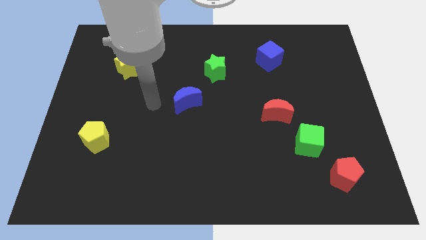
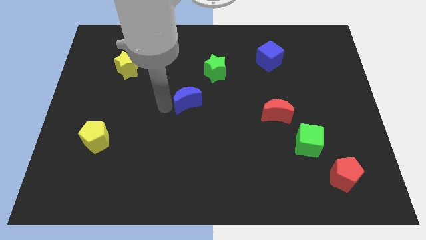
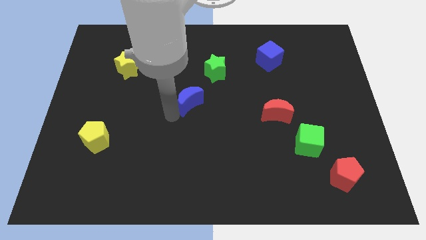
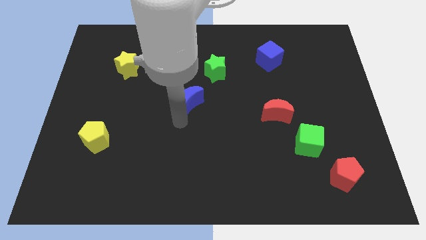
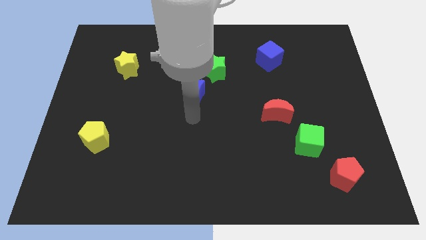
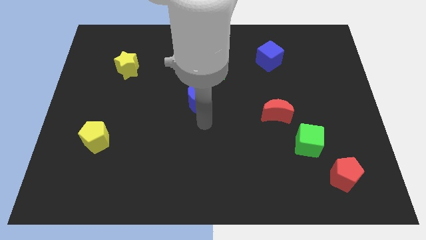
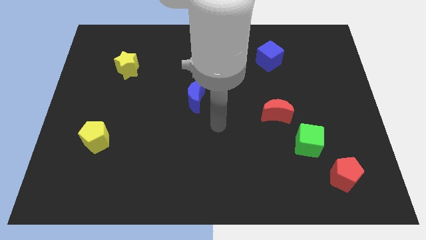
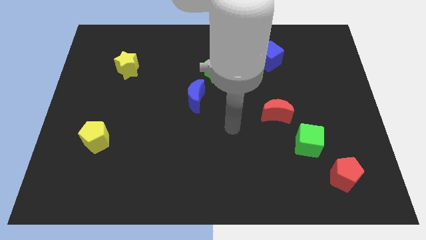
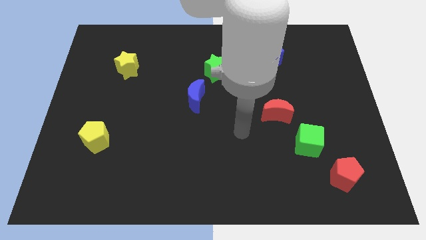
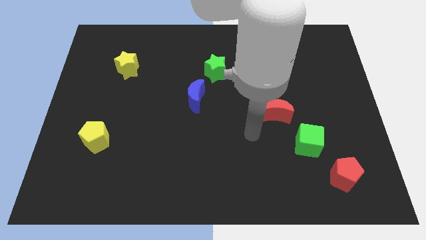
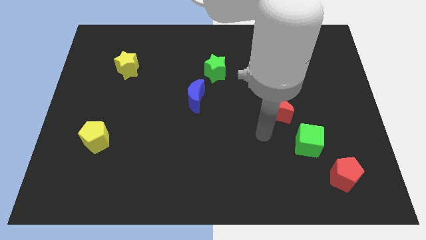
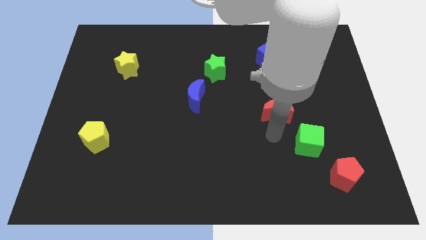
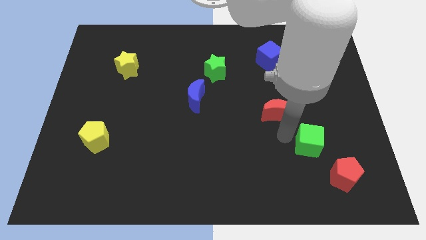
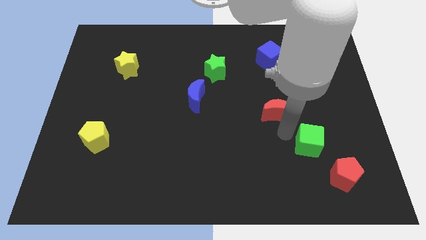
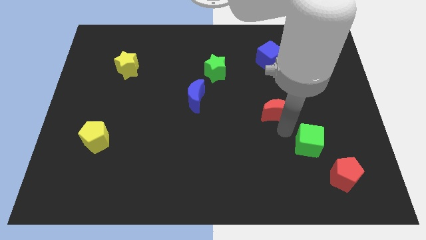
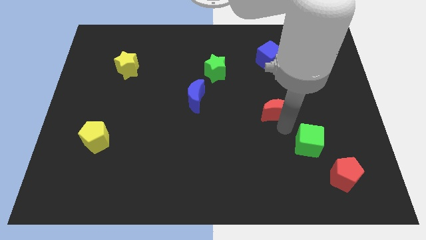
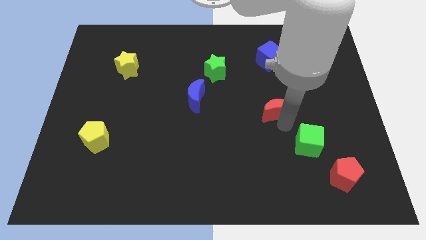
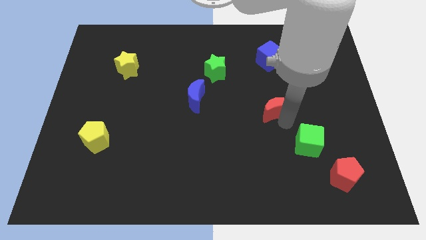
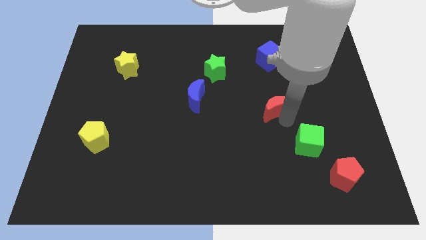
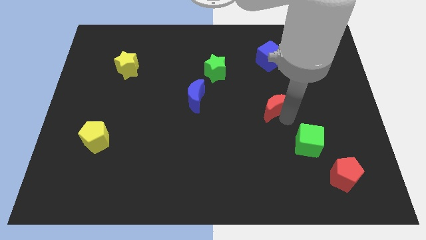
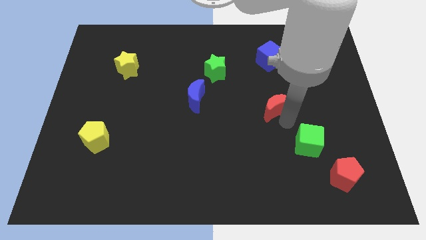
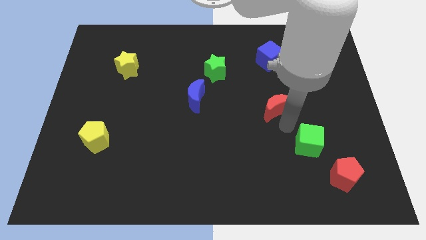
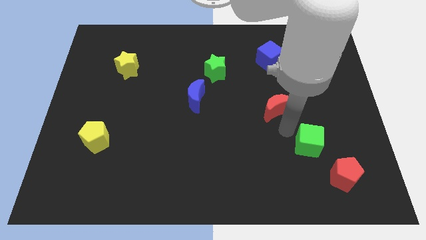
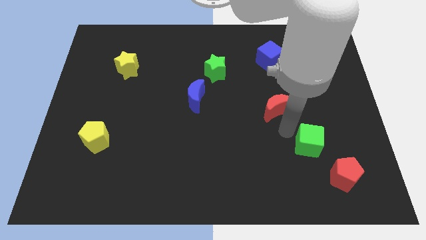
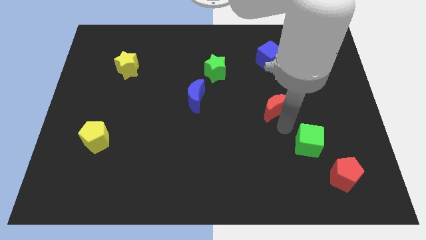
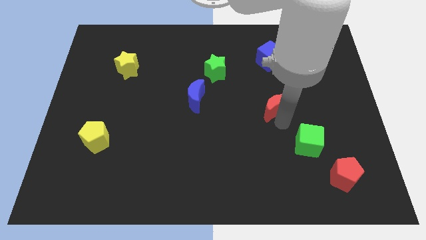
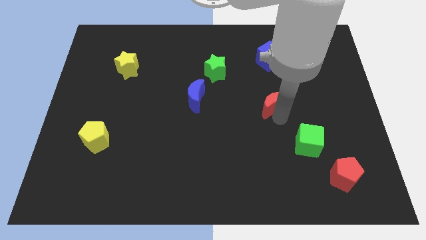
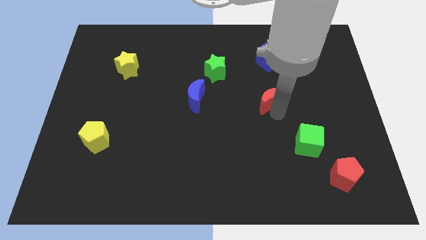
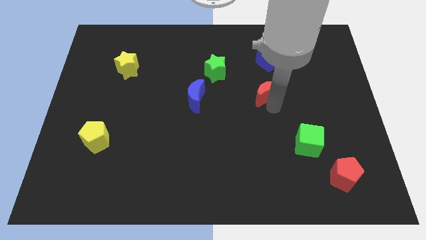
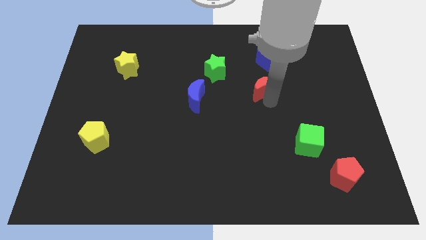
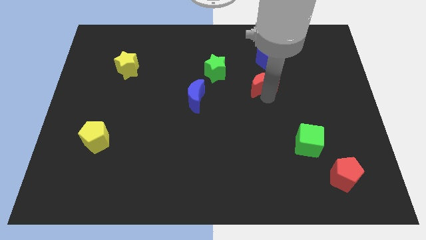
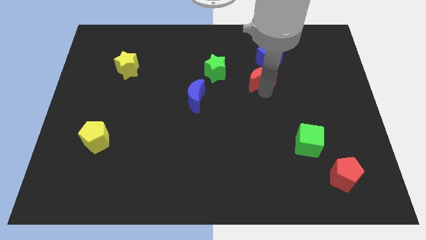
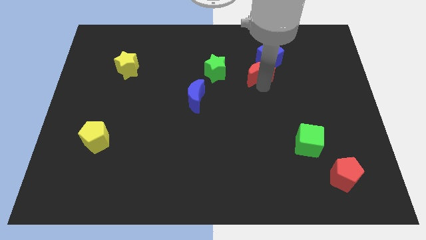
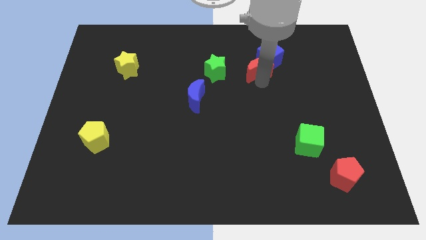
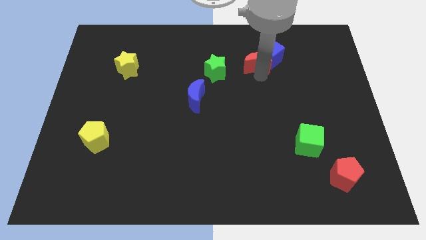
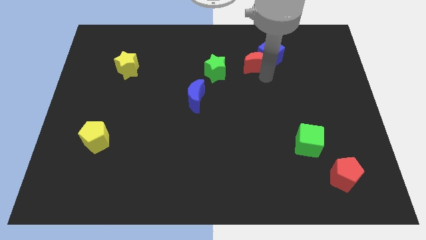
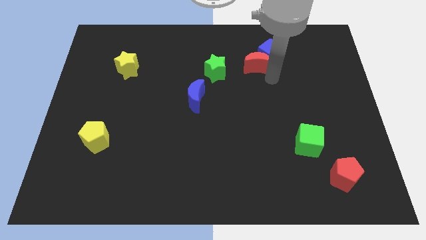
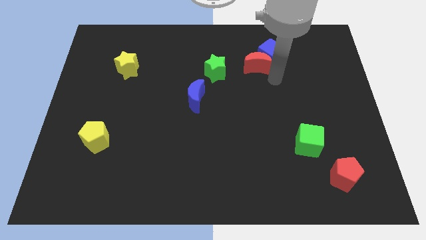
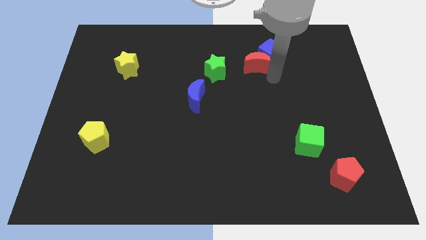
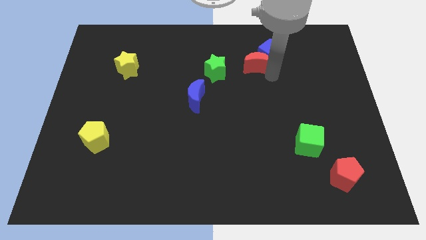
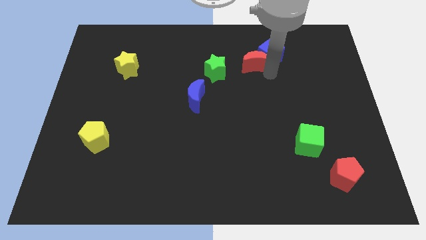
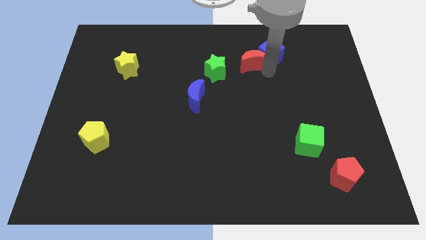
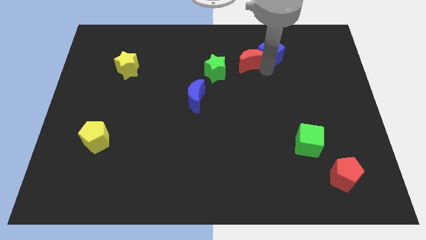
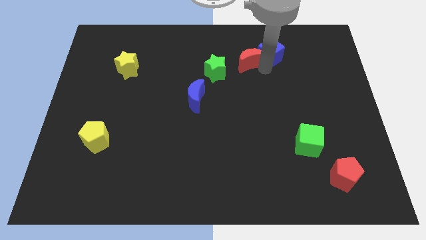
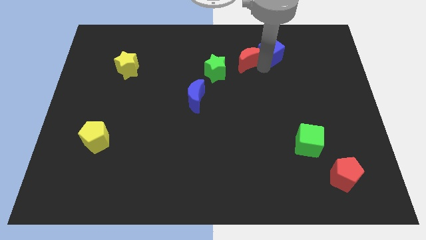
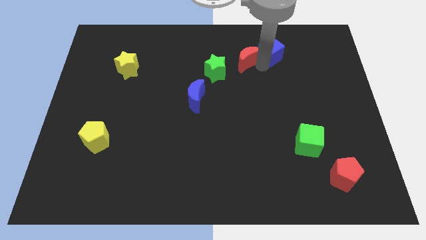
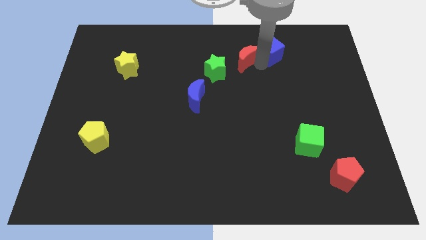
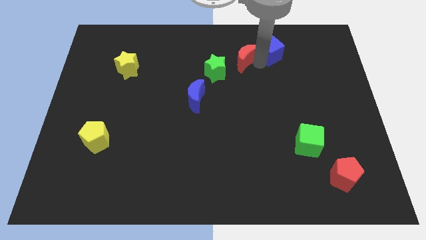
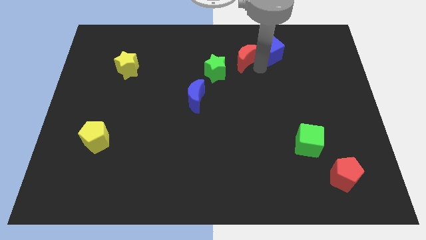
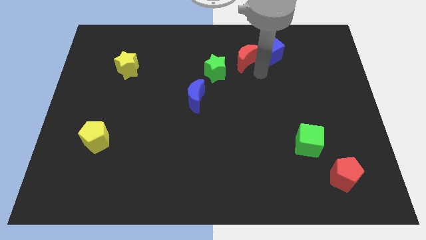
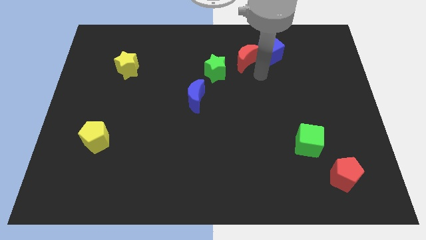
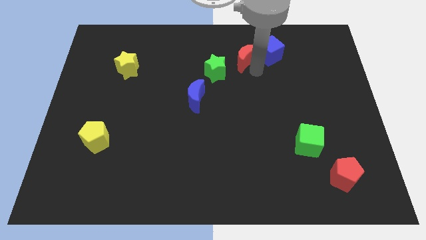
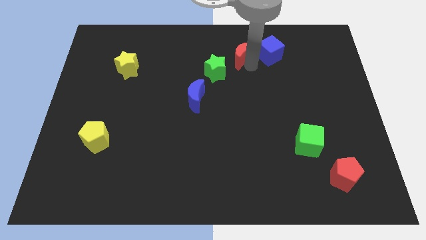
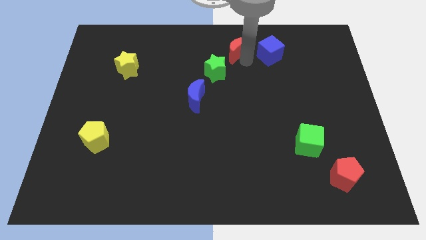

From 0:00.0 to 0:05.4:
slide the red moon to the top

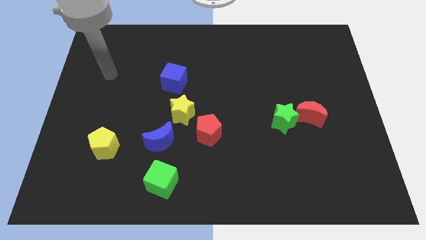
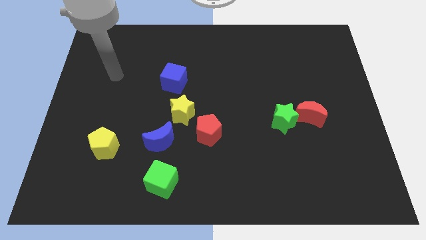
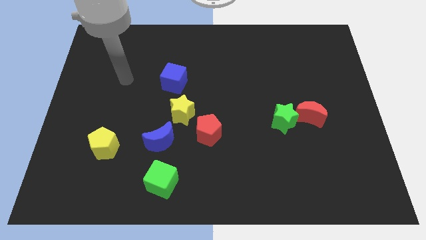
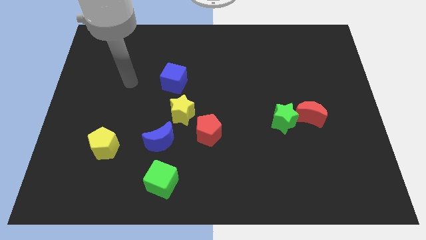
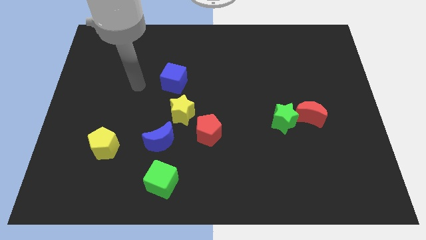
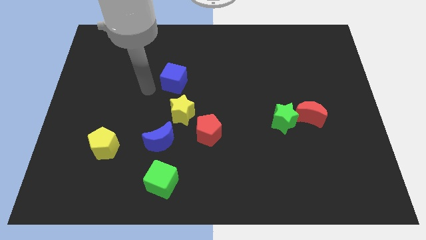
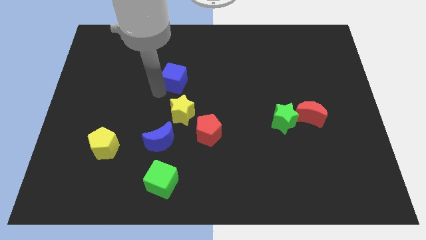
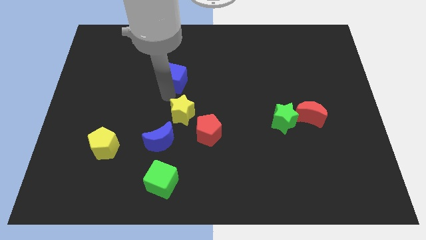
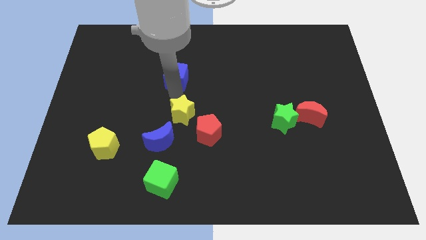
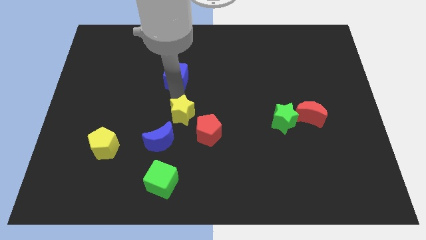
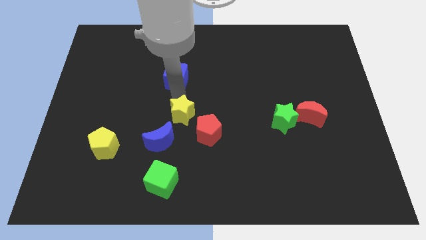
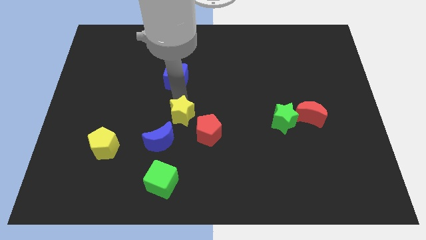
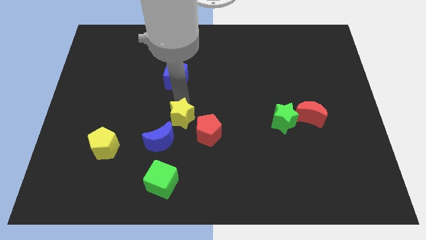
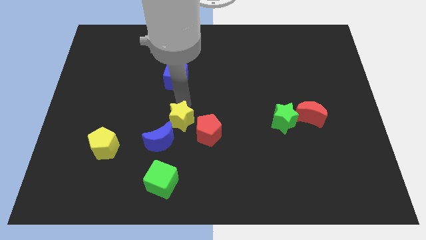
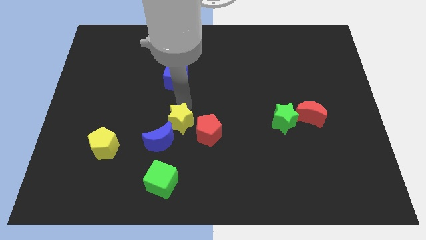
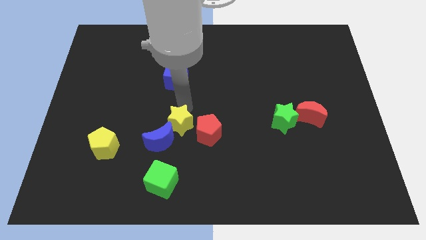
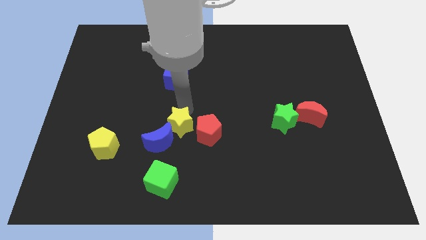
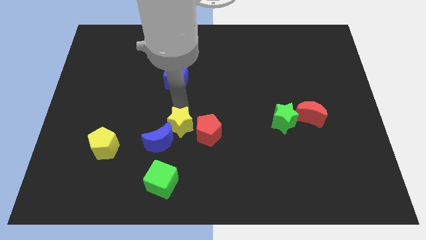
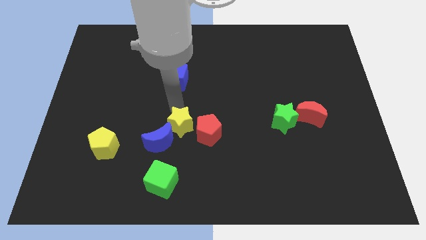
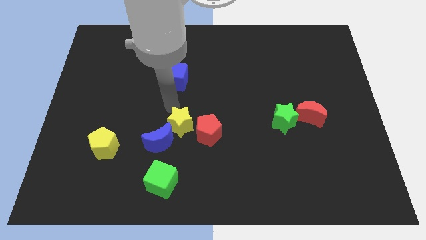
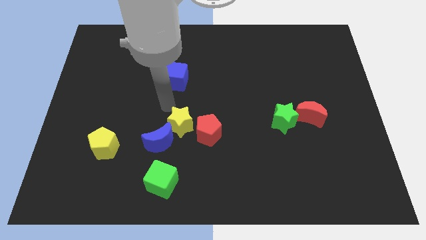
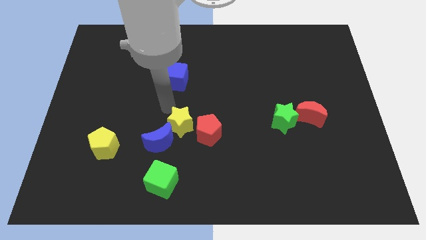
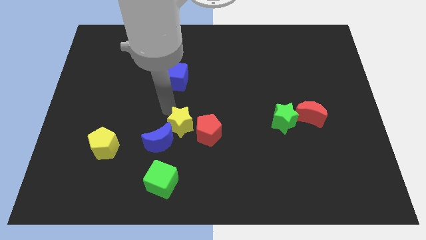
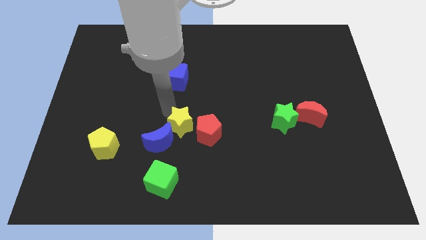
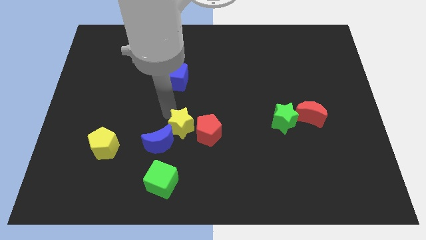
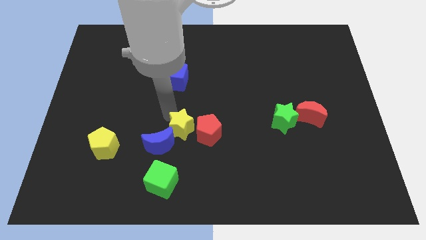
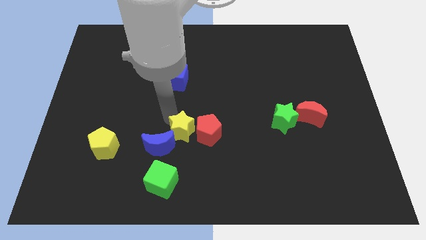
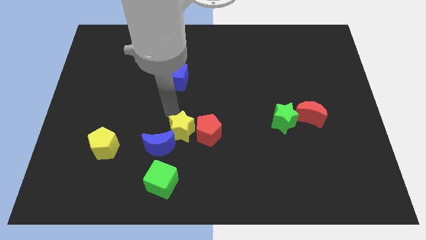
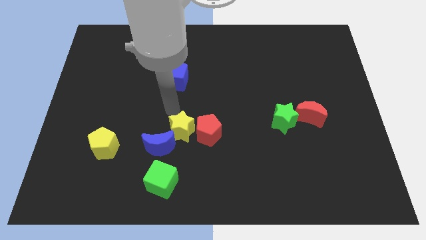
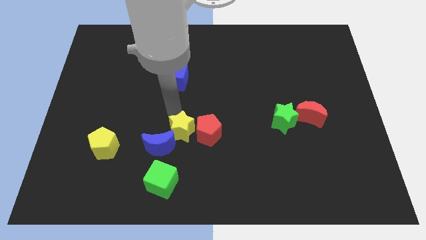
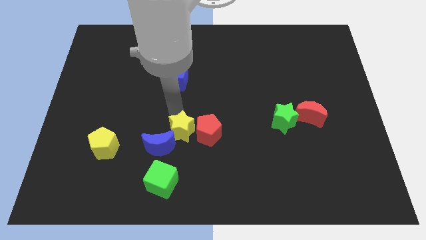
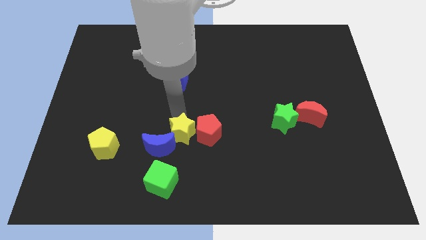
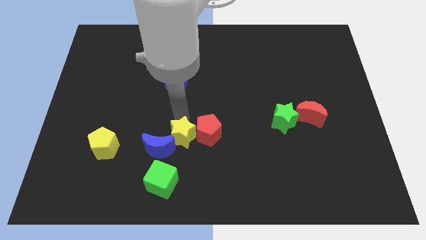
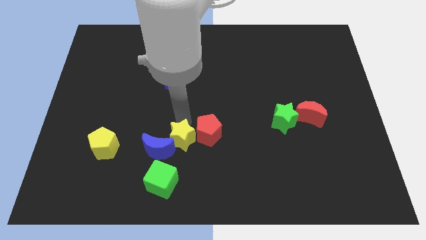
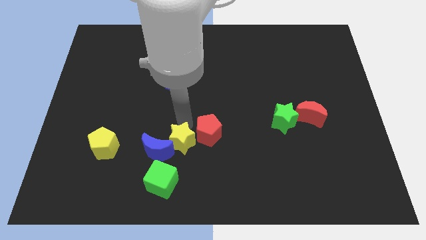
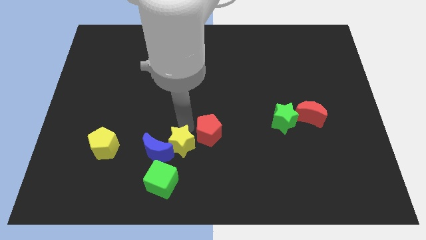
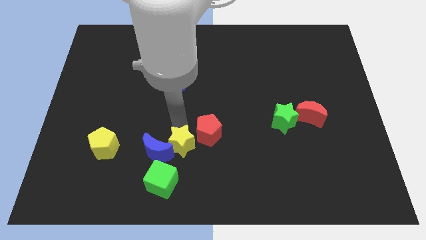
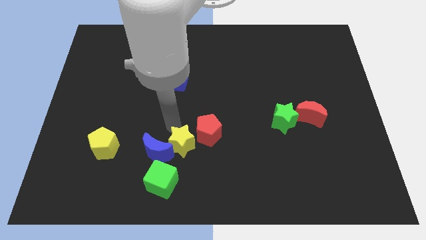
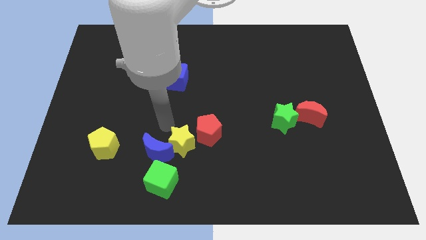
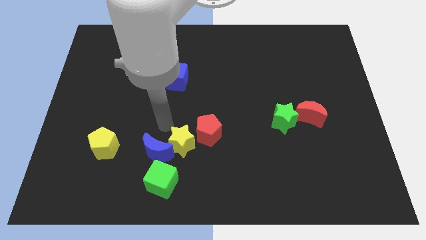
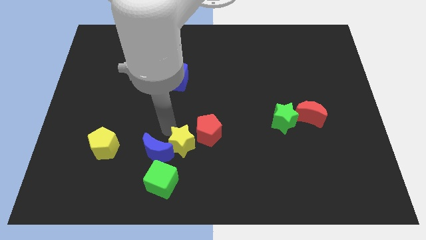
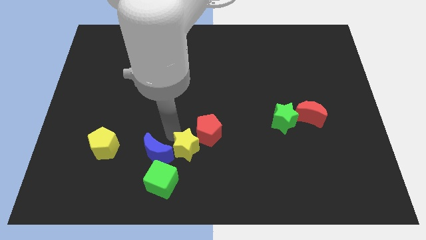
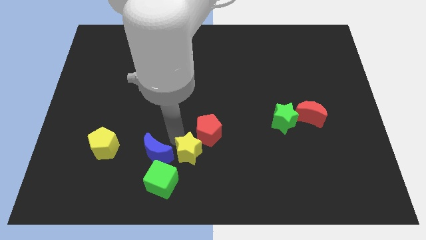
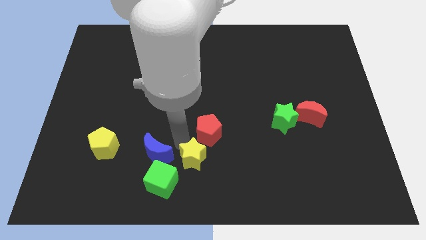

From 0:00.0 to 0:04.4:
put the yellow star to the bottom
